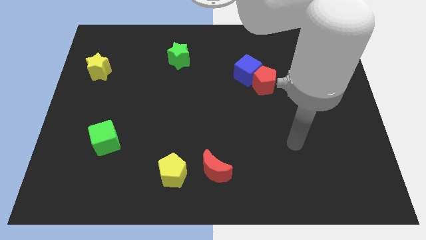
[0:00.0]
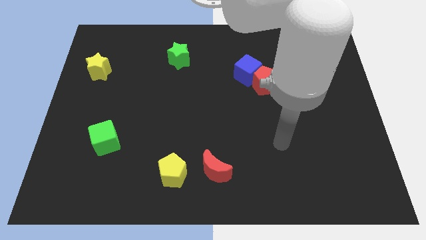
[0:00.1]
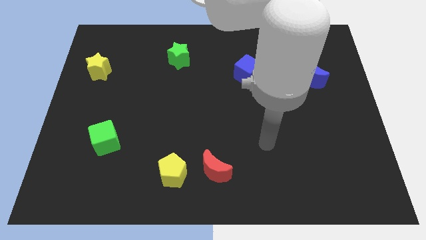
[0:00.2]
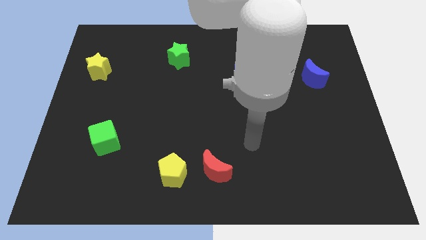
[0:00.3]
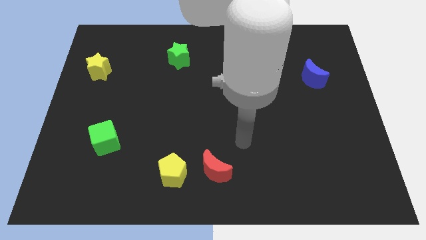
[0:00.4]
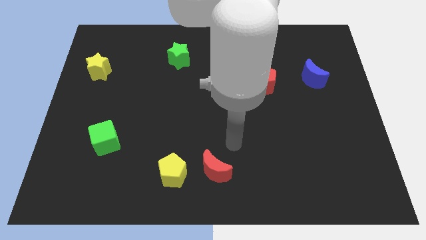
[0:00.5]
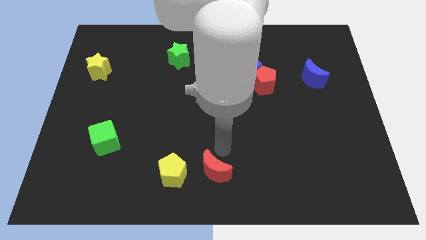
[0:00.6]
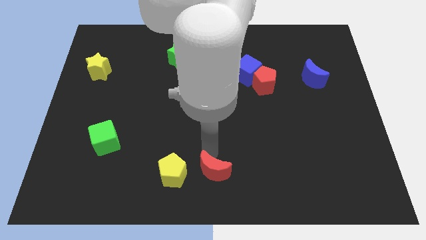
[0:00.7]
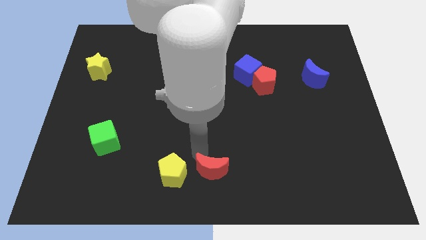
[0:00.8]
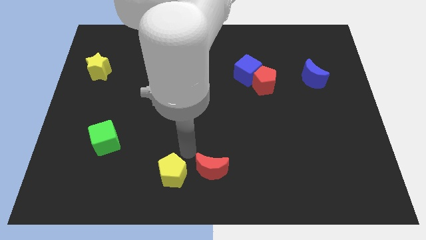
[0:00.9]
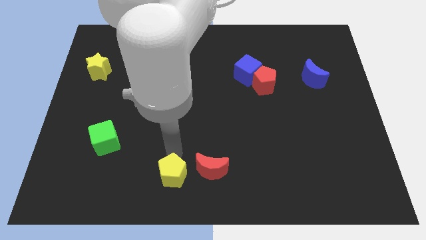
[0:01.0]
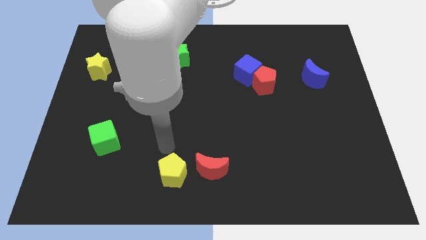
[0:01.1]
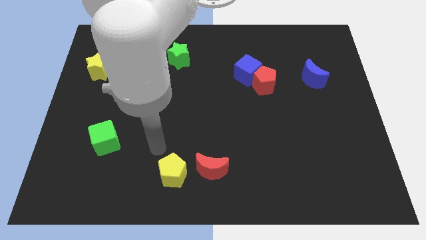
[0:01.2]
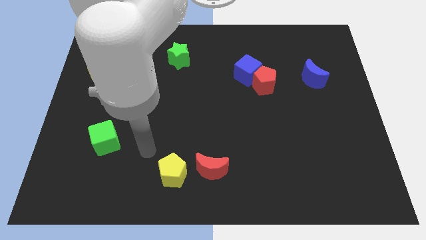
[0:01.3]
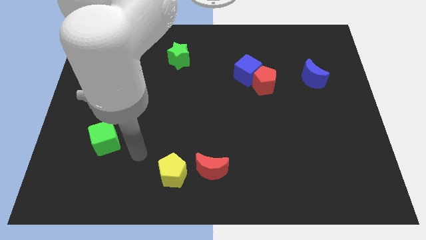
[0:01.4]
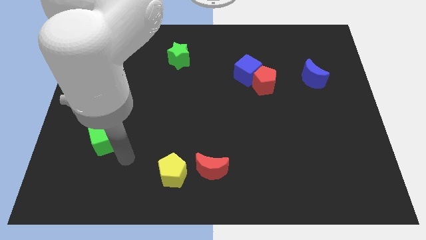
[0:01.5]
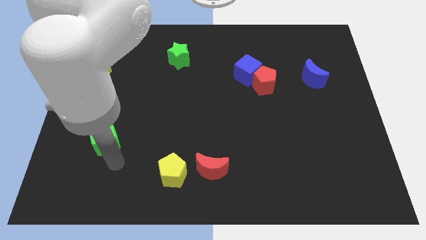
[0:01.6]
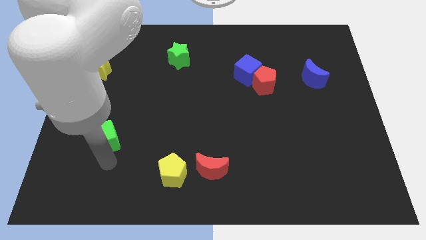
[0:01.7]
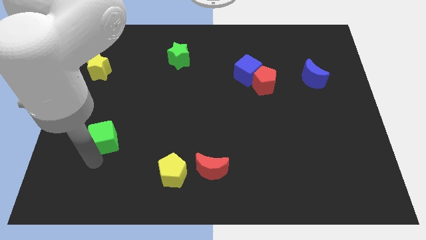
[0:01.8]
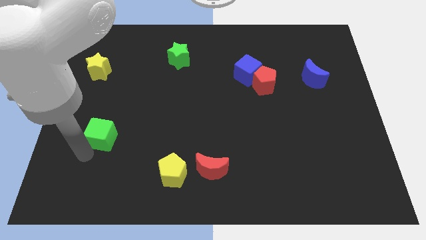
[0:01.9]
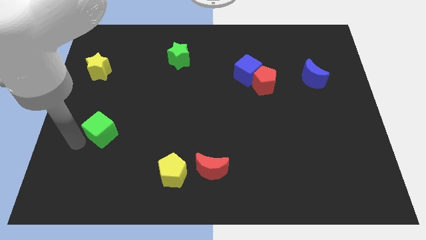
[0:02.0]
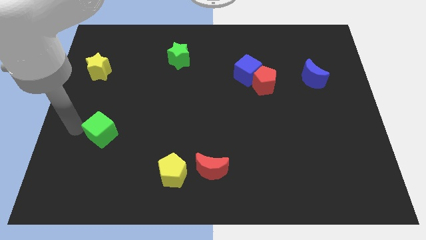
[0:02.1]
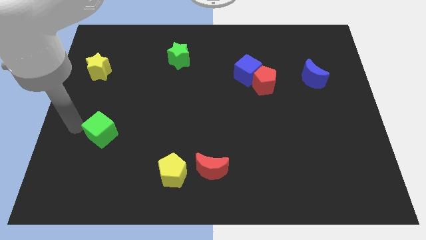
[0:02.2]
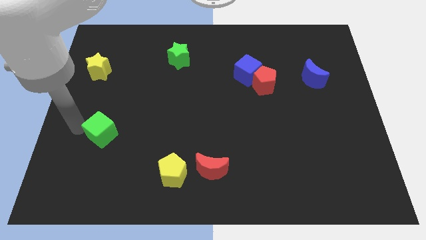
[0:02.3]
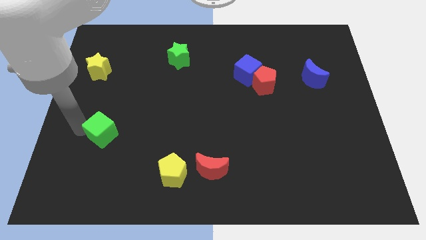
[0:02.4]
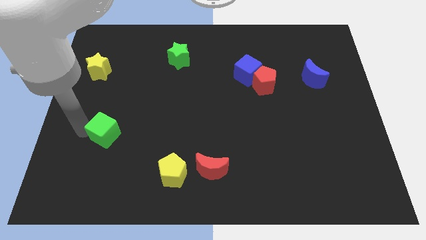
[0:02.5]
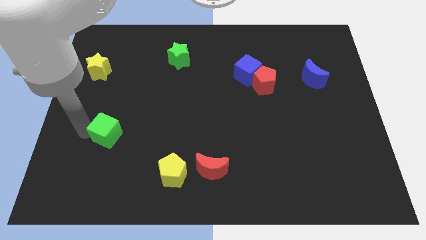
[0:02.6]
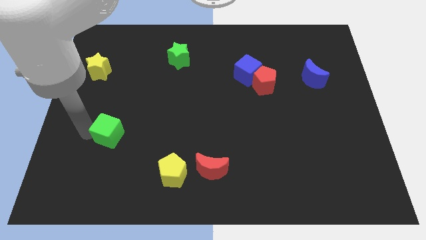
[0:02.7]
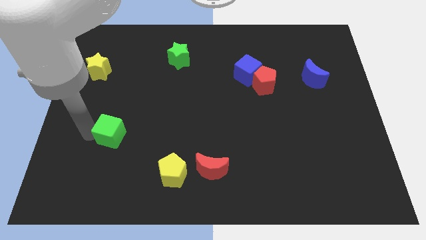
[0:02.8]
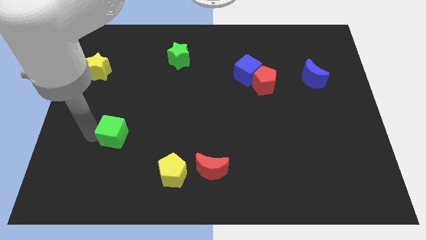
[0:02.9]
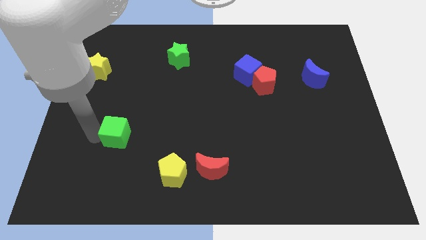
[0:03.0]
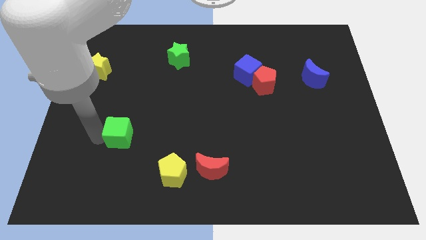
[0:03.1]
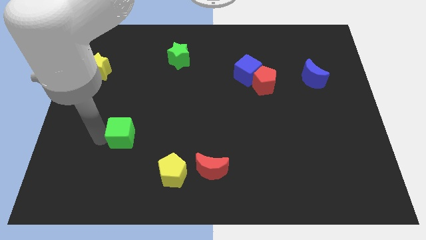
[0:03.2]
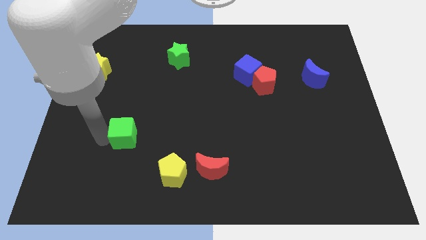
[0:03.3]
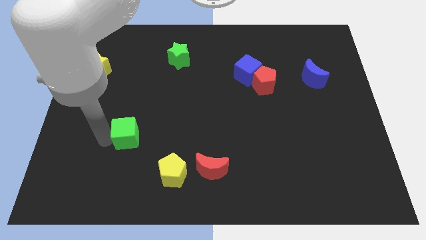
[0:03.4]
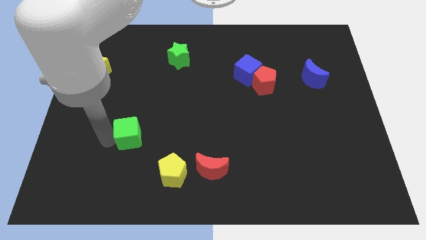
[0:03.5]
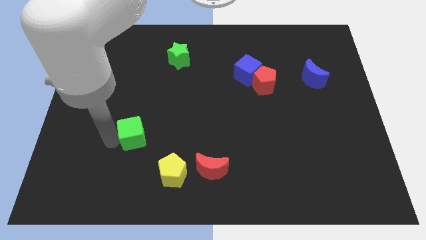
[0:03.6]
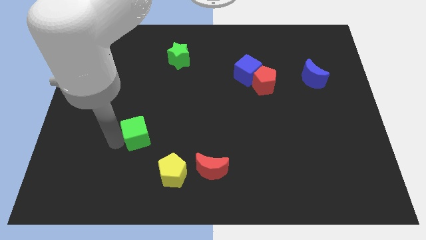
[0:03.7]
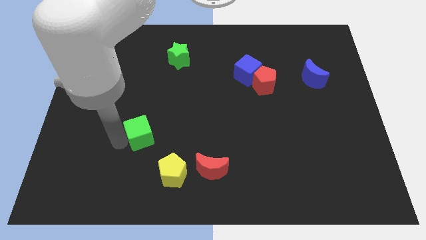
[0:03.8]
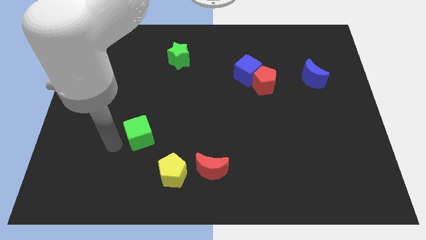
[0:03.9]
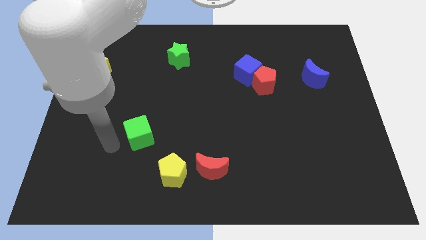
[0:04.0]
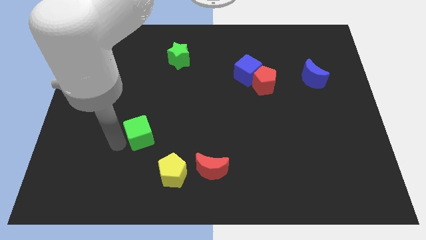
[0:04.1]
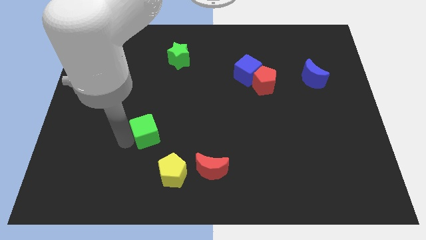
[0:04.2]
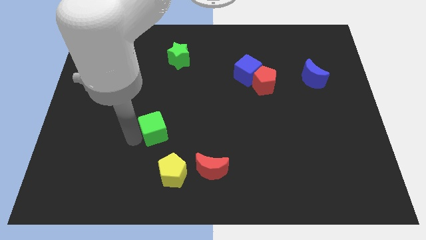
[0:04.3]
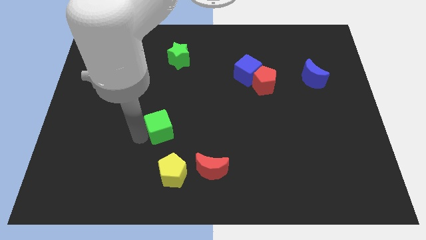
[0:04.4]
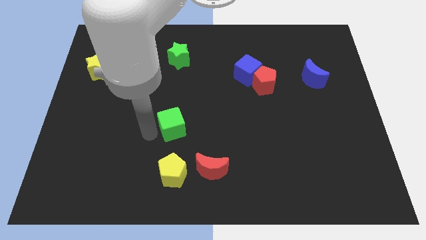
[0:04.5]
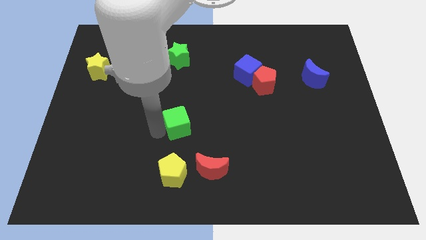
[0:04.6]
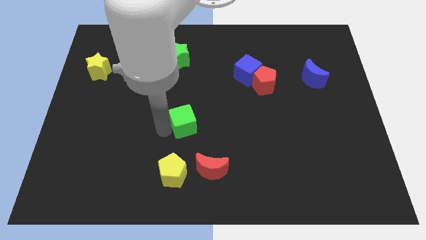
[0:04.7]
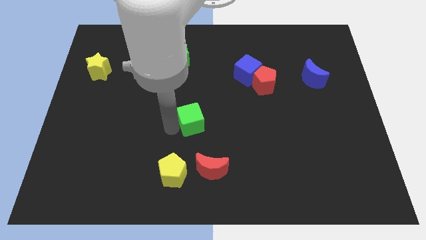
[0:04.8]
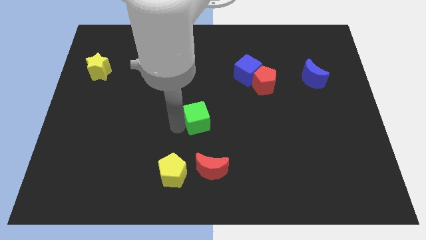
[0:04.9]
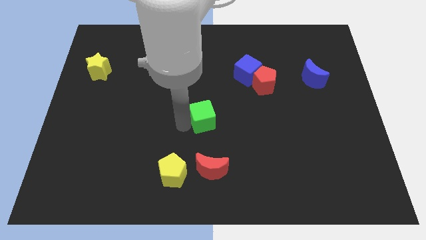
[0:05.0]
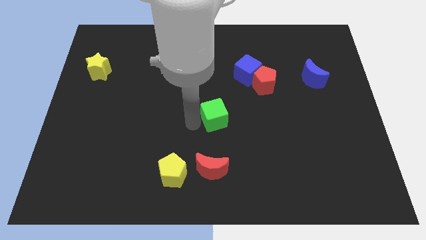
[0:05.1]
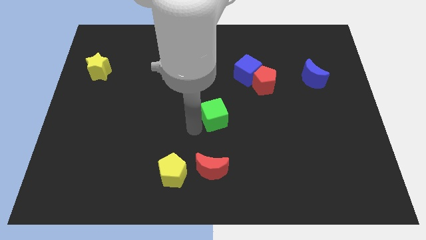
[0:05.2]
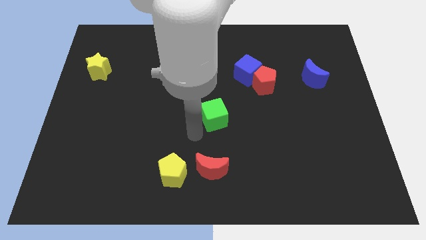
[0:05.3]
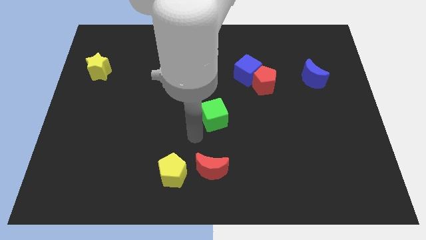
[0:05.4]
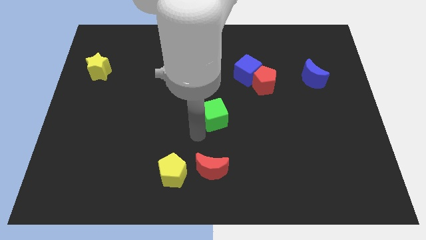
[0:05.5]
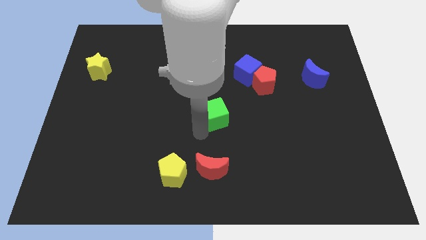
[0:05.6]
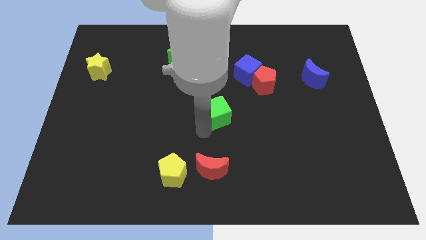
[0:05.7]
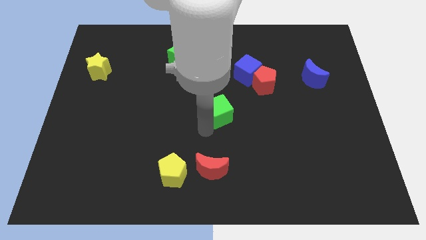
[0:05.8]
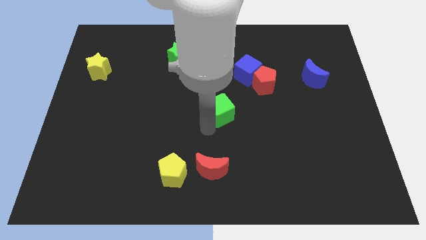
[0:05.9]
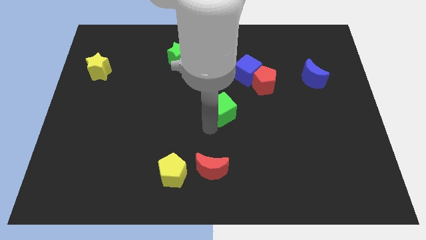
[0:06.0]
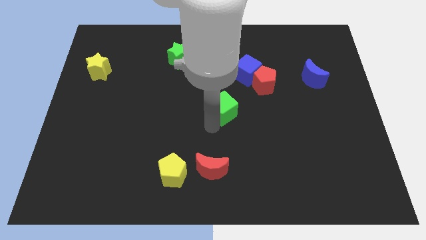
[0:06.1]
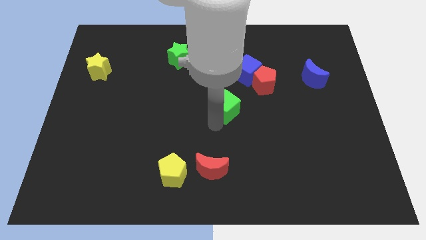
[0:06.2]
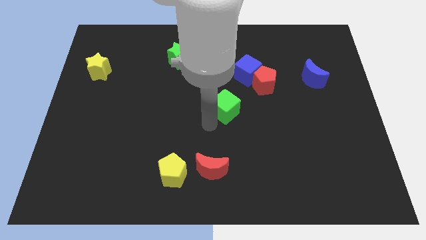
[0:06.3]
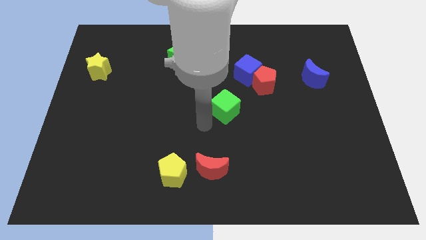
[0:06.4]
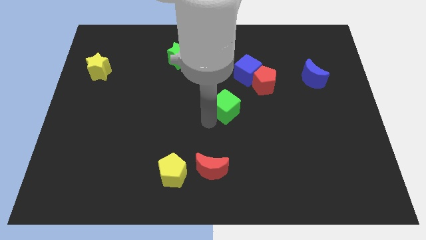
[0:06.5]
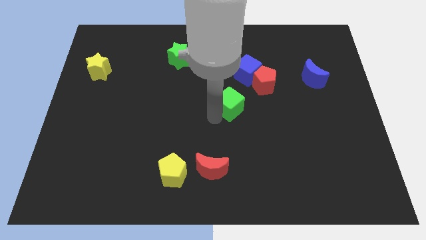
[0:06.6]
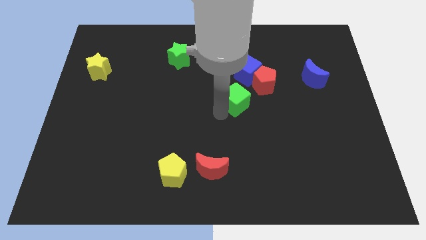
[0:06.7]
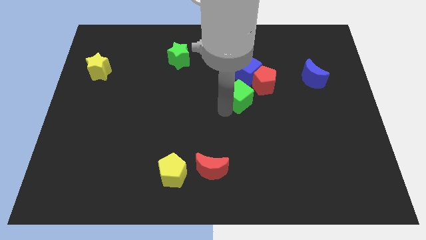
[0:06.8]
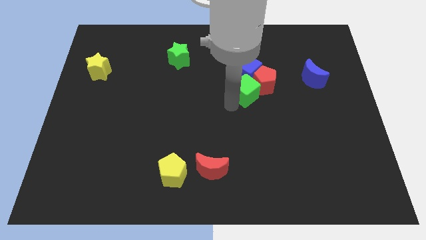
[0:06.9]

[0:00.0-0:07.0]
move the green cube next to the red pentagon
